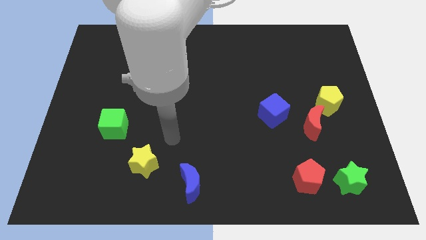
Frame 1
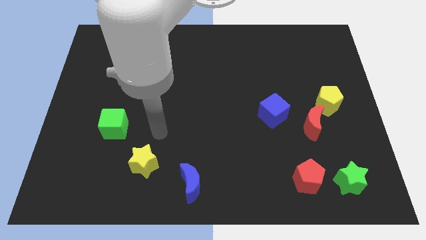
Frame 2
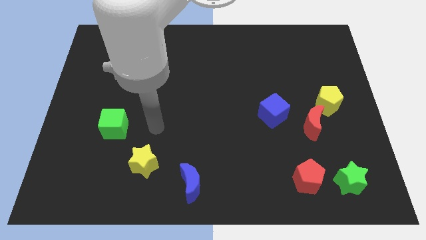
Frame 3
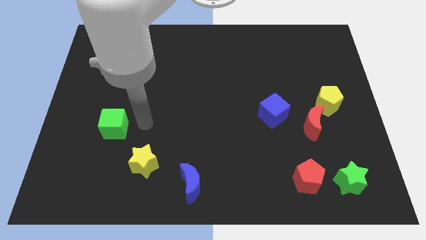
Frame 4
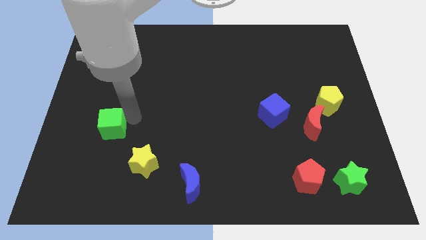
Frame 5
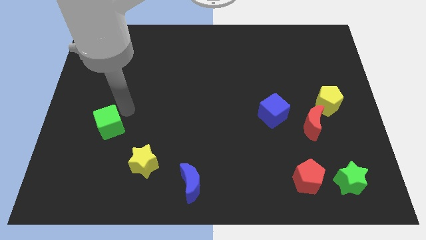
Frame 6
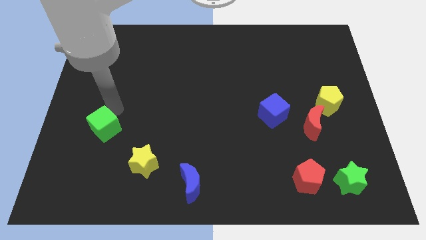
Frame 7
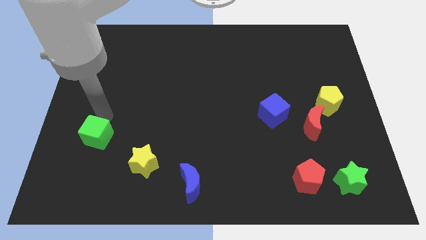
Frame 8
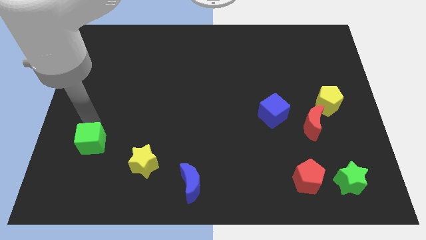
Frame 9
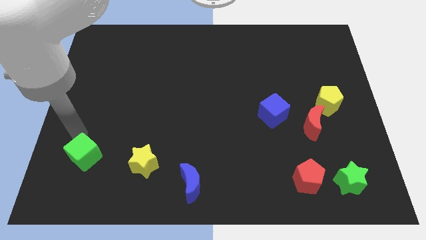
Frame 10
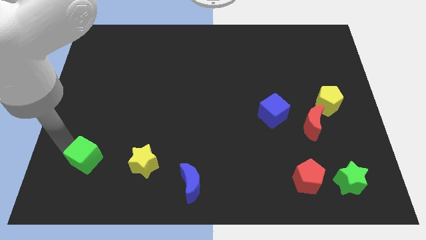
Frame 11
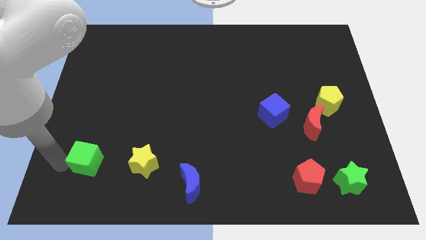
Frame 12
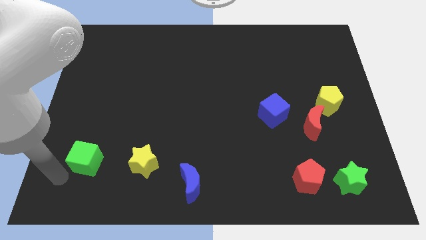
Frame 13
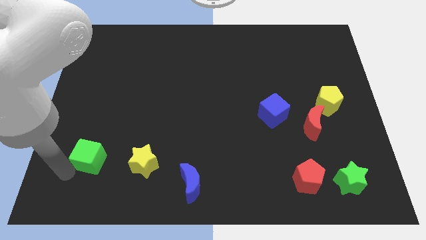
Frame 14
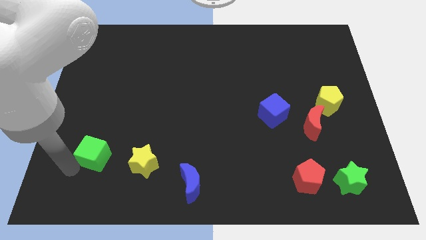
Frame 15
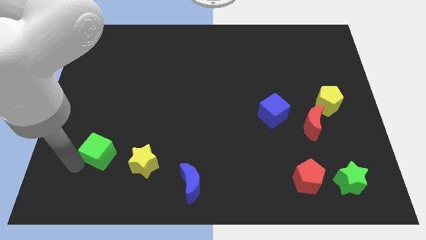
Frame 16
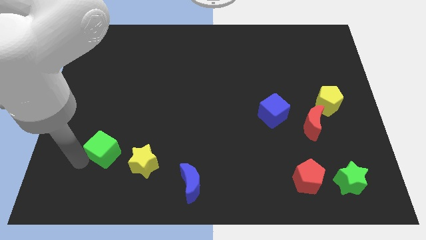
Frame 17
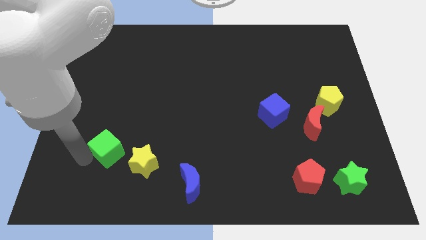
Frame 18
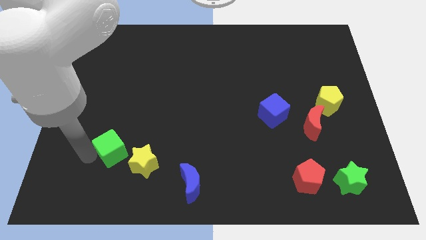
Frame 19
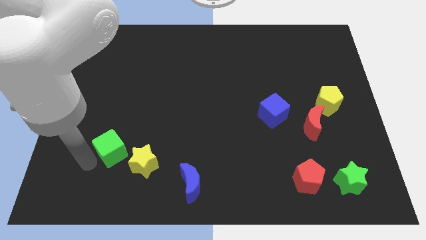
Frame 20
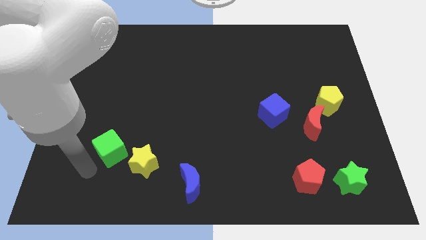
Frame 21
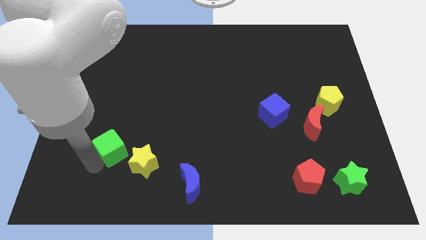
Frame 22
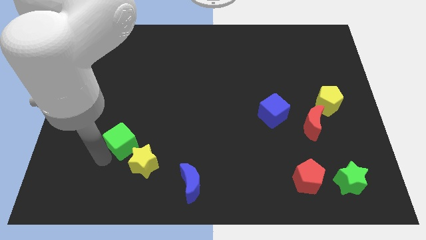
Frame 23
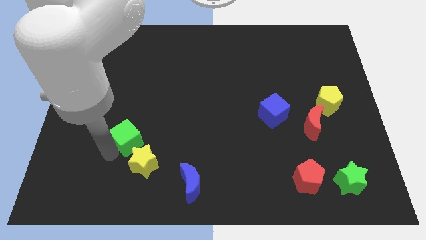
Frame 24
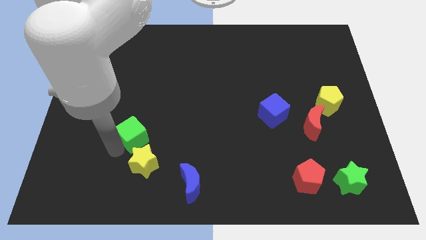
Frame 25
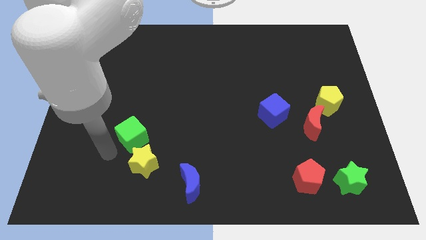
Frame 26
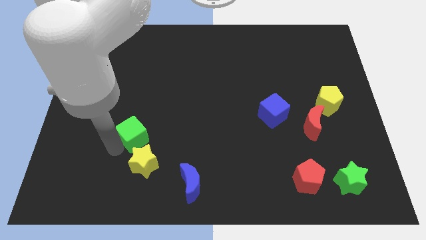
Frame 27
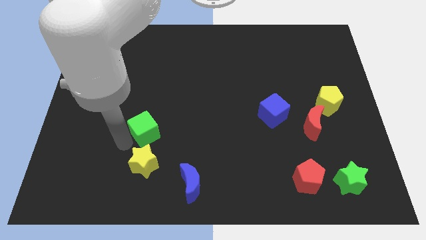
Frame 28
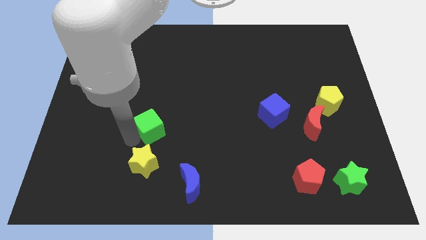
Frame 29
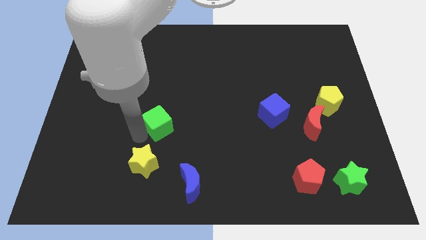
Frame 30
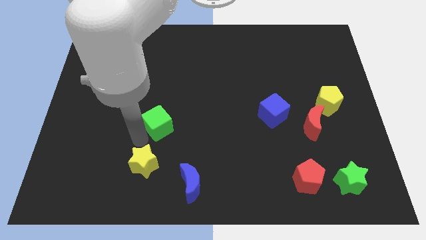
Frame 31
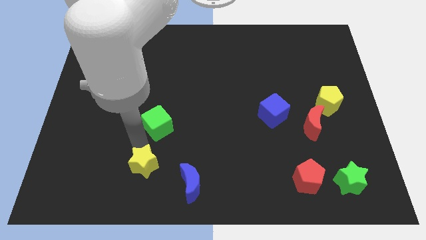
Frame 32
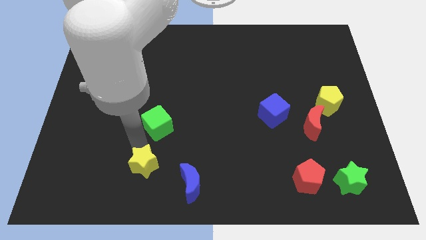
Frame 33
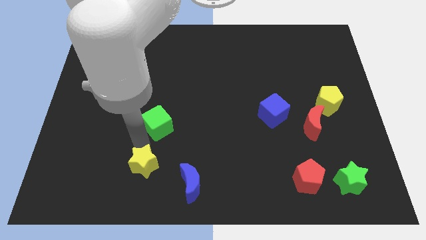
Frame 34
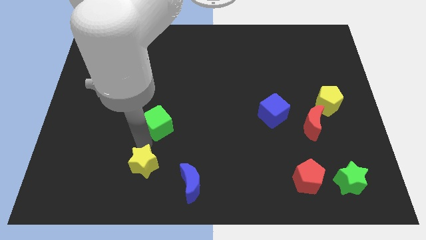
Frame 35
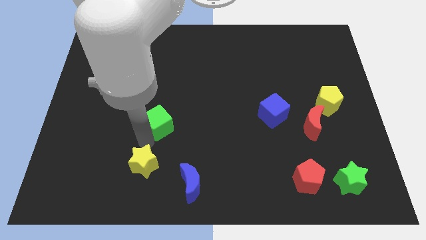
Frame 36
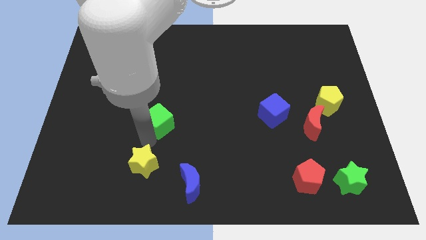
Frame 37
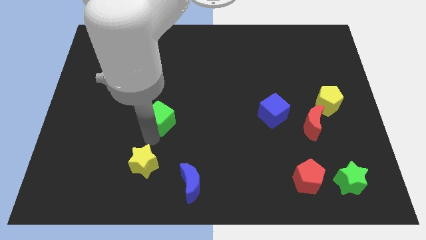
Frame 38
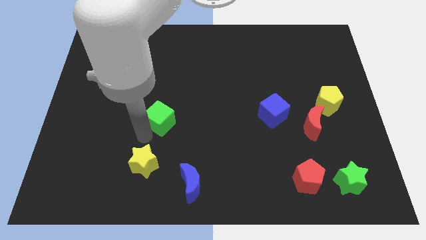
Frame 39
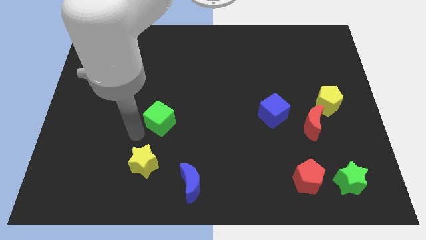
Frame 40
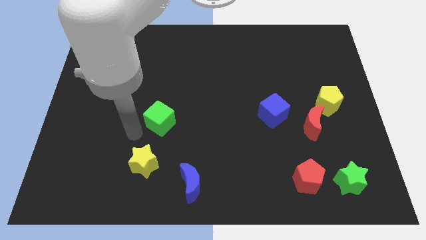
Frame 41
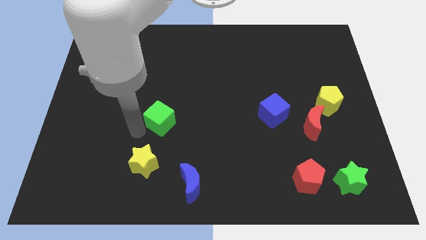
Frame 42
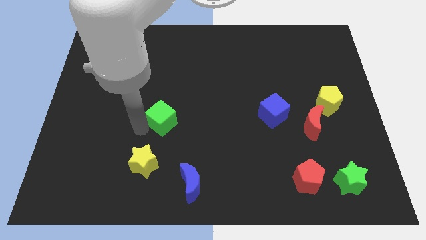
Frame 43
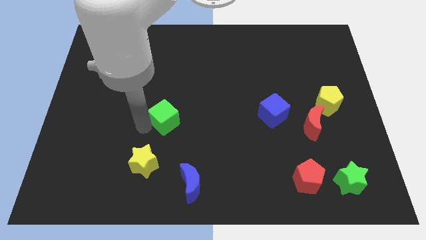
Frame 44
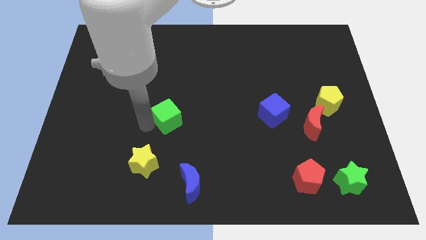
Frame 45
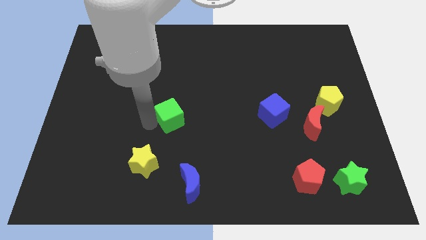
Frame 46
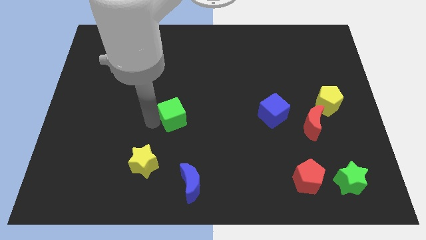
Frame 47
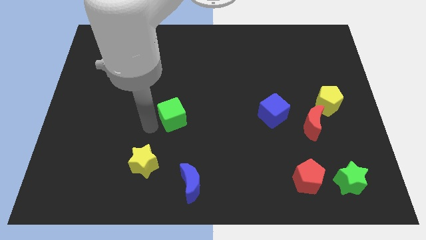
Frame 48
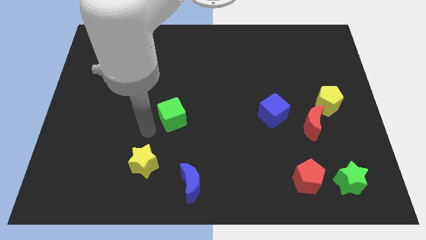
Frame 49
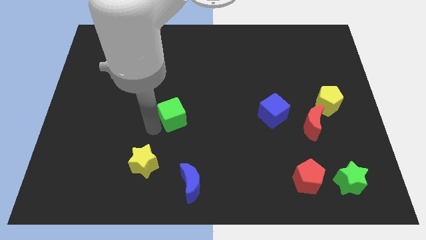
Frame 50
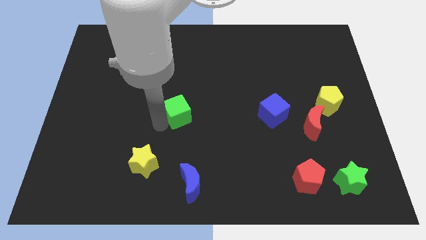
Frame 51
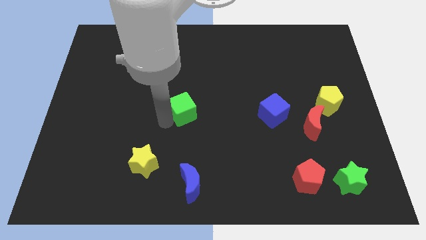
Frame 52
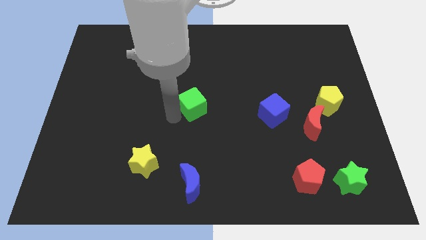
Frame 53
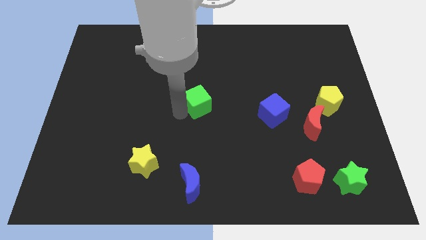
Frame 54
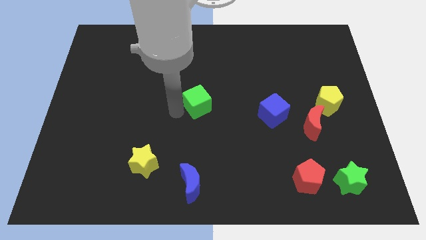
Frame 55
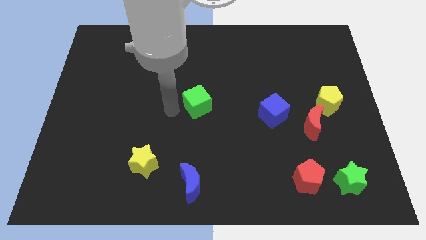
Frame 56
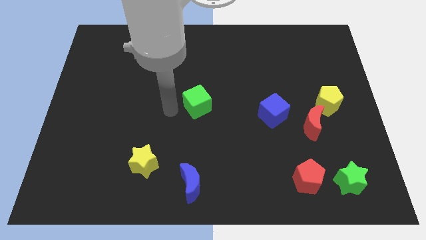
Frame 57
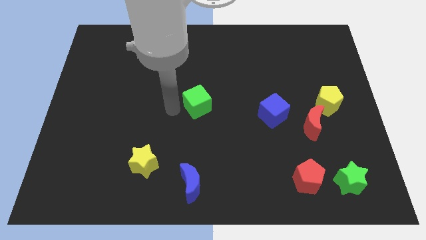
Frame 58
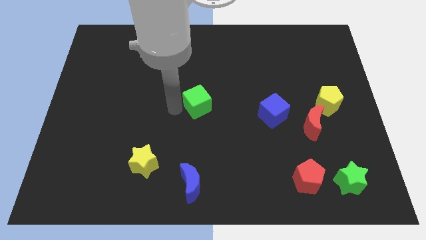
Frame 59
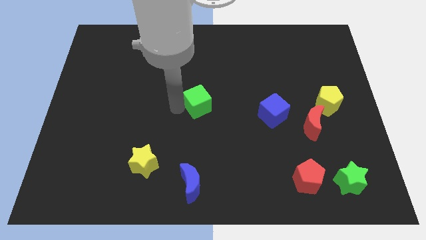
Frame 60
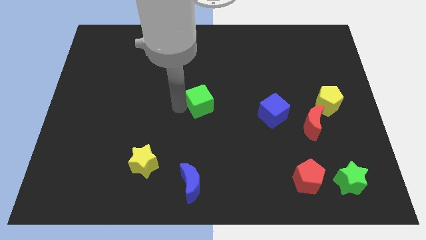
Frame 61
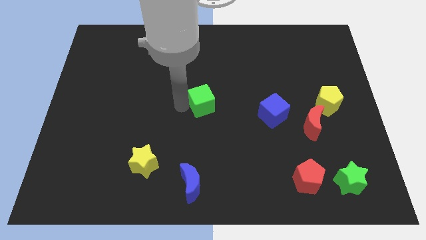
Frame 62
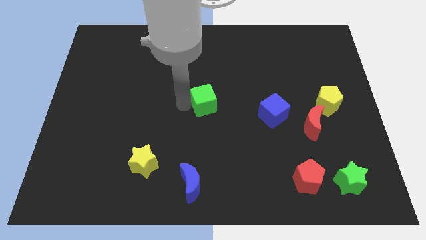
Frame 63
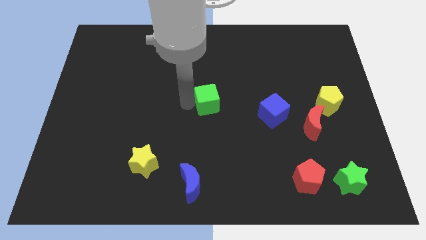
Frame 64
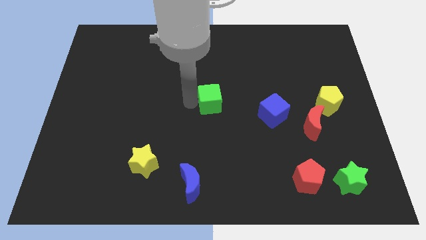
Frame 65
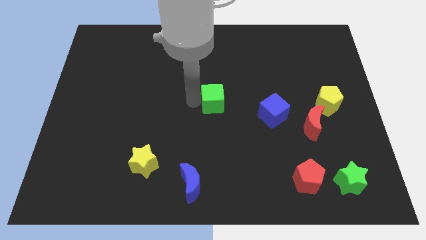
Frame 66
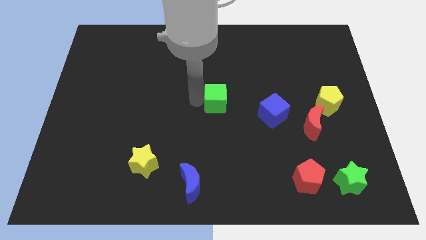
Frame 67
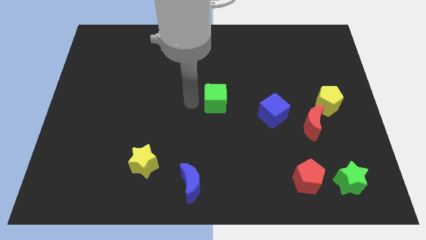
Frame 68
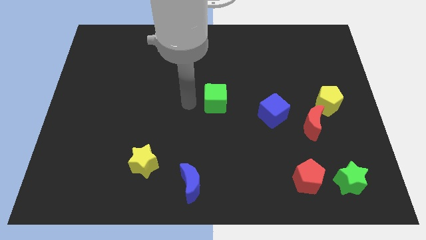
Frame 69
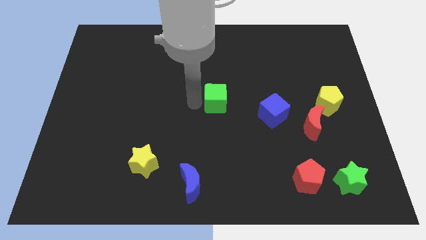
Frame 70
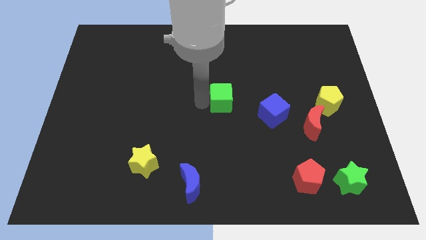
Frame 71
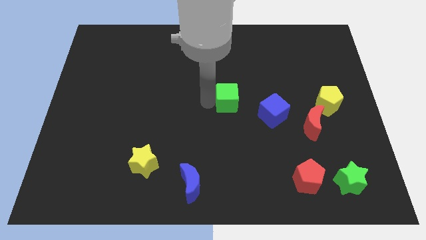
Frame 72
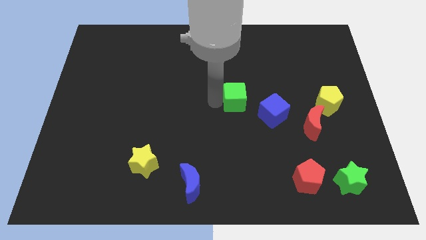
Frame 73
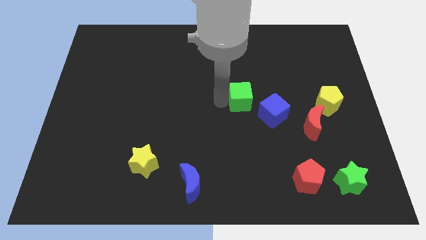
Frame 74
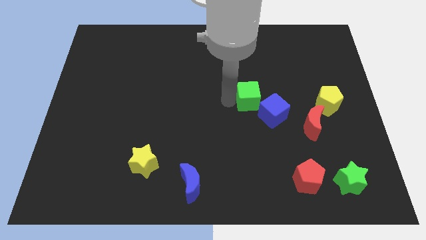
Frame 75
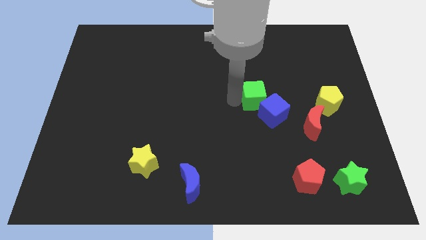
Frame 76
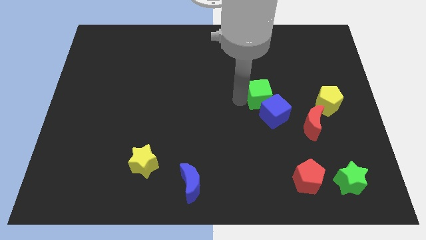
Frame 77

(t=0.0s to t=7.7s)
move the green cube left of the yellow pentagon
